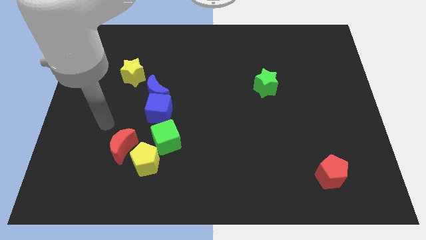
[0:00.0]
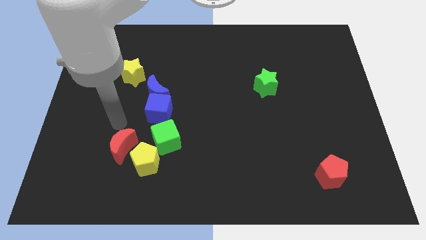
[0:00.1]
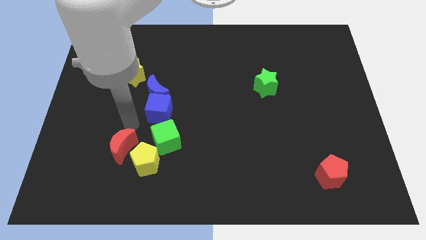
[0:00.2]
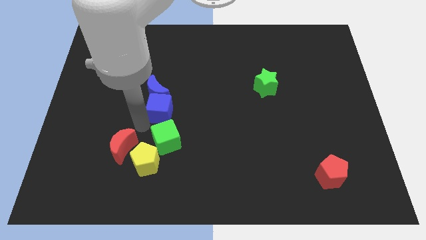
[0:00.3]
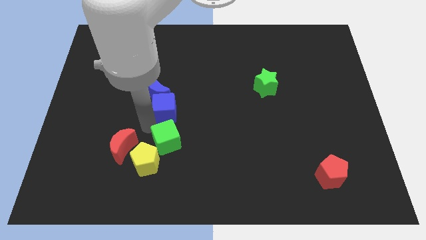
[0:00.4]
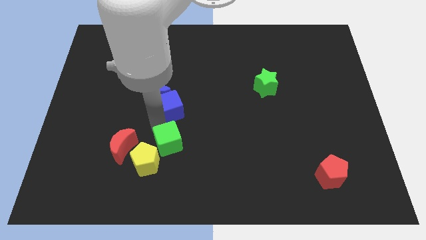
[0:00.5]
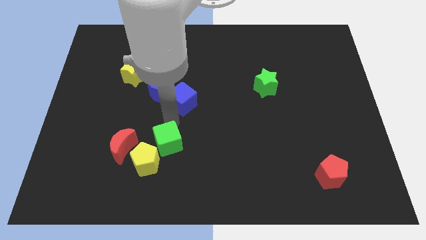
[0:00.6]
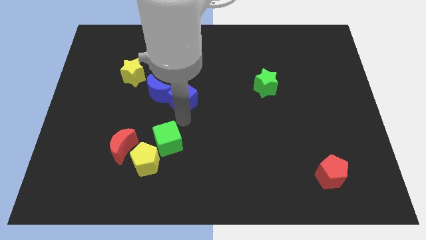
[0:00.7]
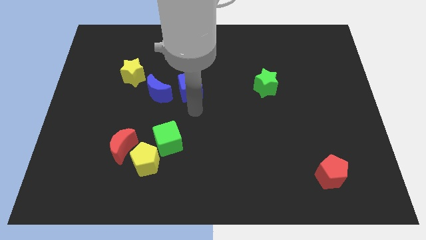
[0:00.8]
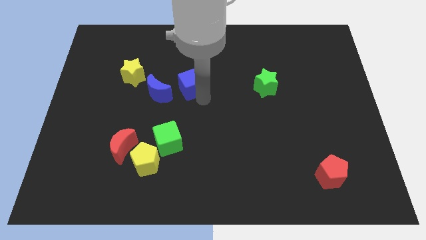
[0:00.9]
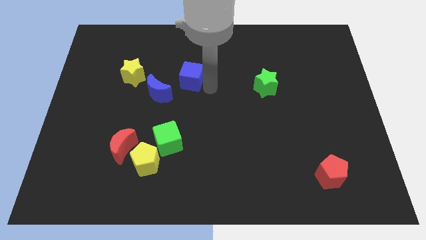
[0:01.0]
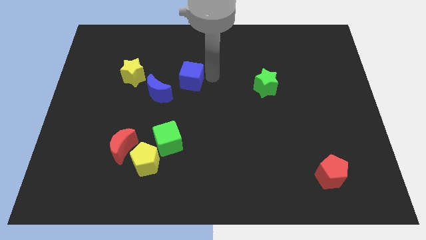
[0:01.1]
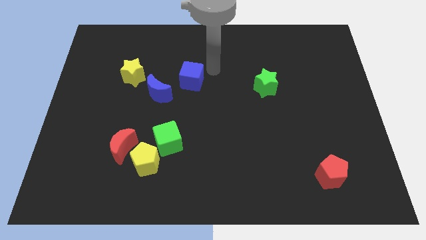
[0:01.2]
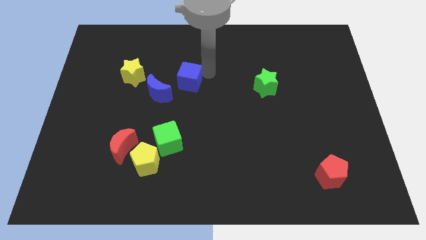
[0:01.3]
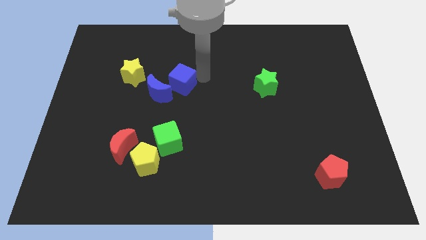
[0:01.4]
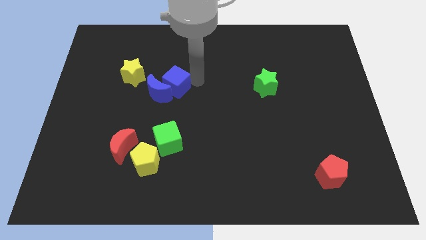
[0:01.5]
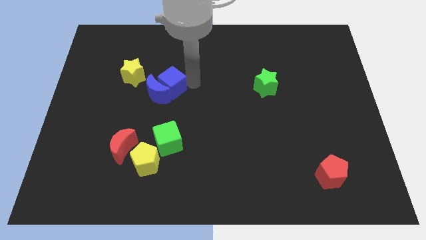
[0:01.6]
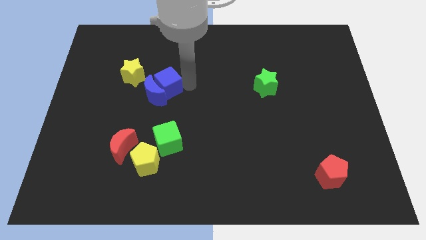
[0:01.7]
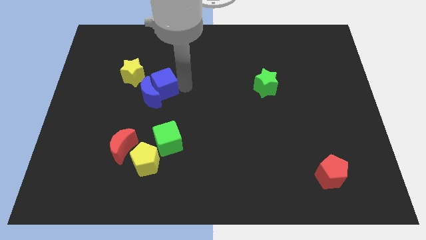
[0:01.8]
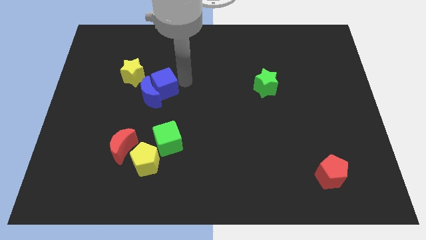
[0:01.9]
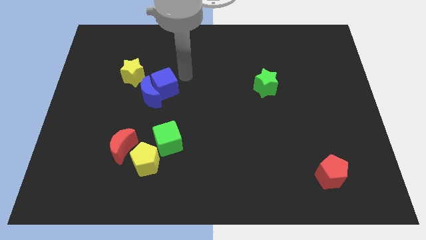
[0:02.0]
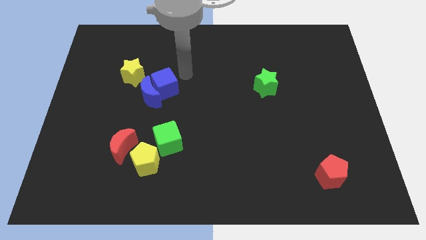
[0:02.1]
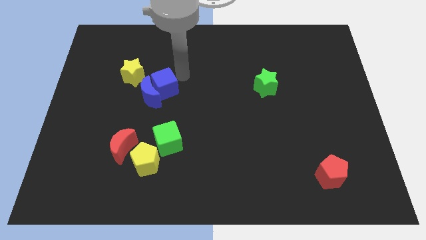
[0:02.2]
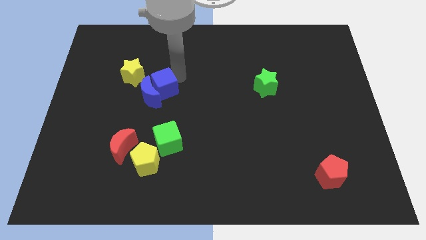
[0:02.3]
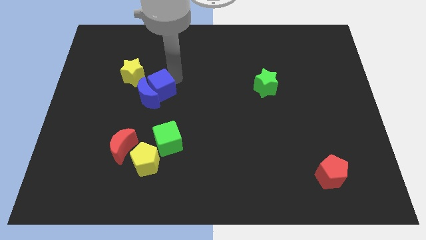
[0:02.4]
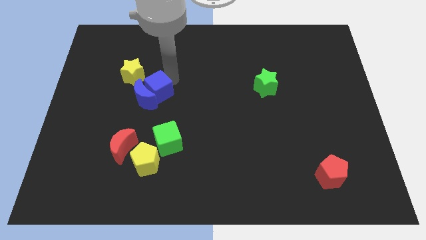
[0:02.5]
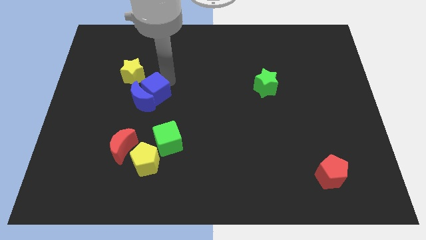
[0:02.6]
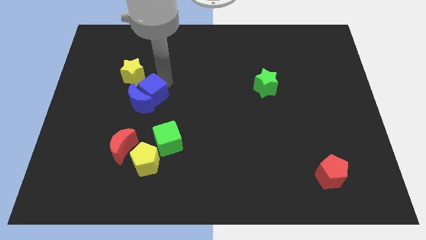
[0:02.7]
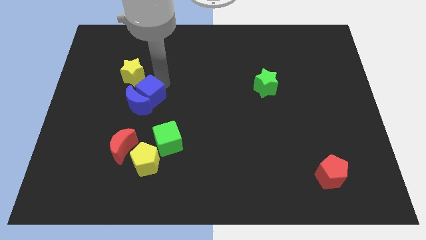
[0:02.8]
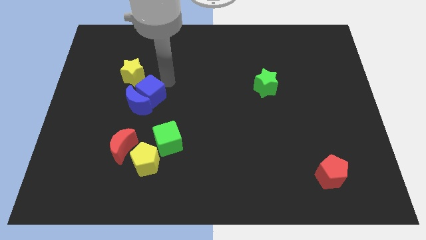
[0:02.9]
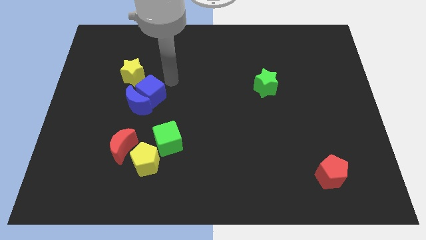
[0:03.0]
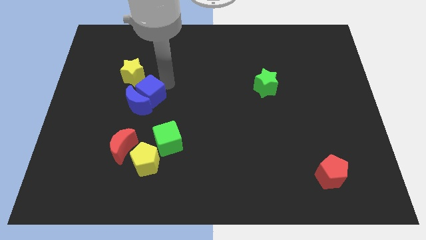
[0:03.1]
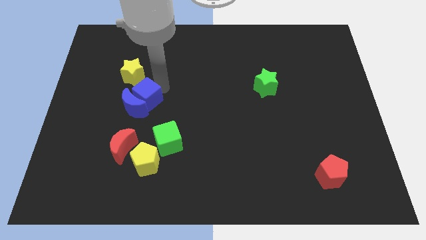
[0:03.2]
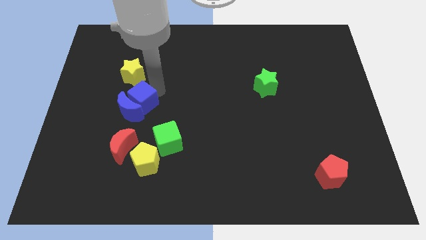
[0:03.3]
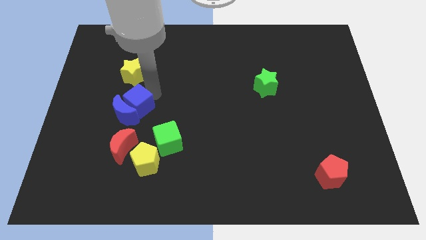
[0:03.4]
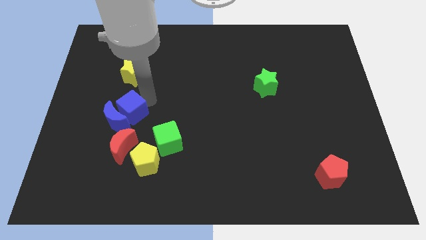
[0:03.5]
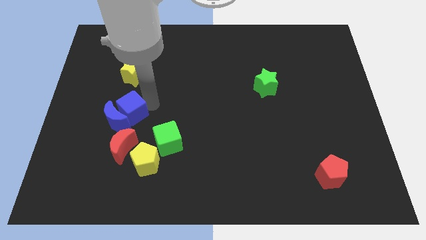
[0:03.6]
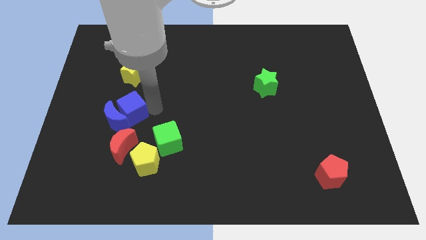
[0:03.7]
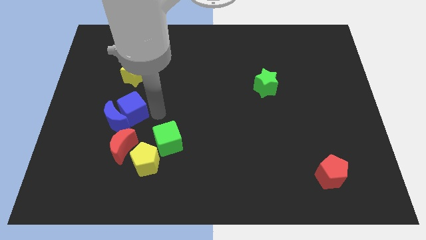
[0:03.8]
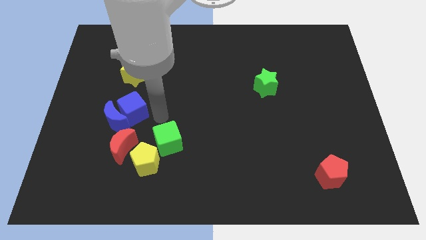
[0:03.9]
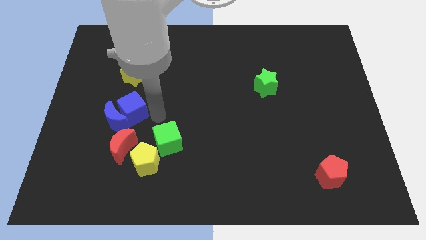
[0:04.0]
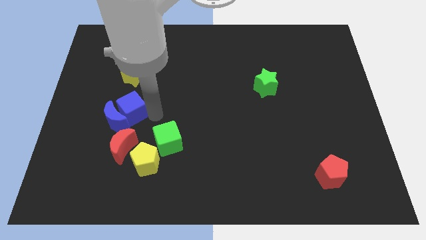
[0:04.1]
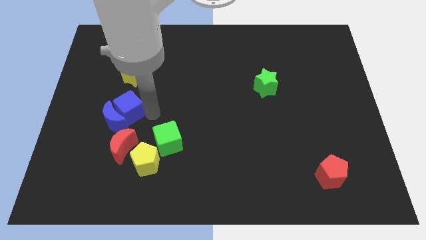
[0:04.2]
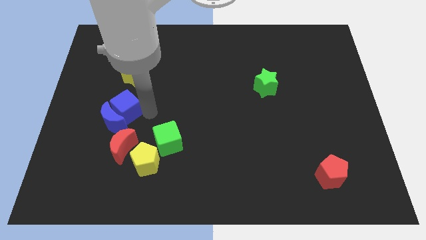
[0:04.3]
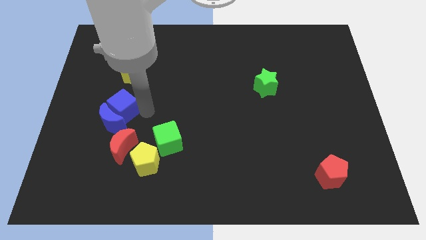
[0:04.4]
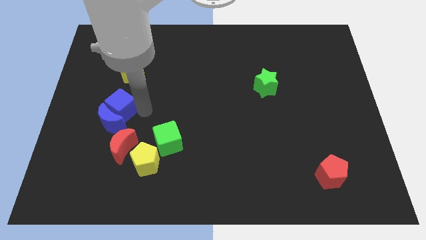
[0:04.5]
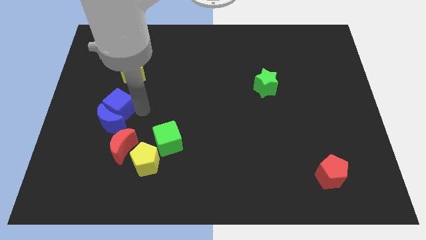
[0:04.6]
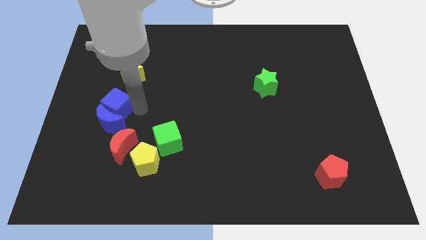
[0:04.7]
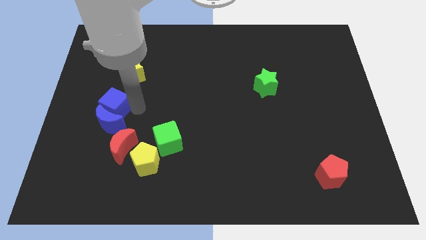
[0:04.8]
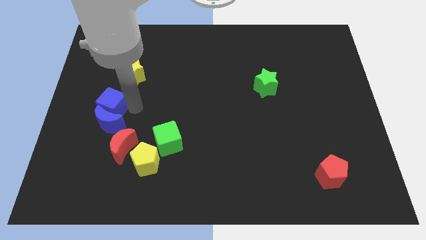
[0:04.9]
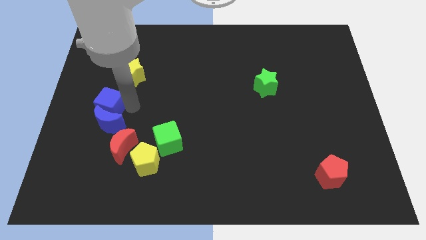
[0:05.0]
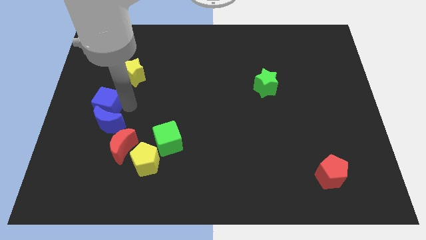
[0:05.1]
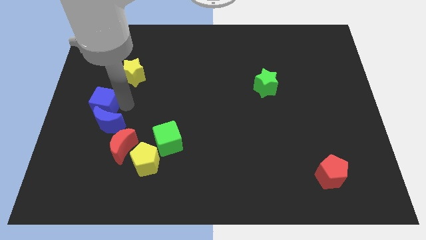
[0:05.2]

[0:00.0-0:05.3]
push the blue cube to the left side
